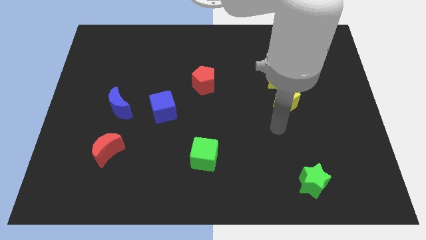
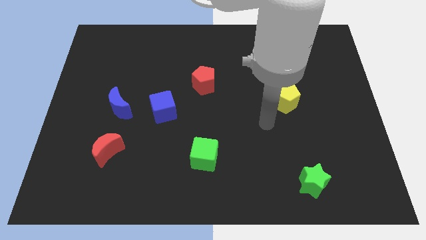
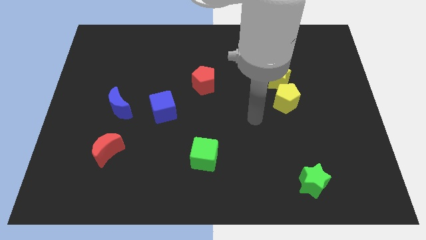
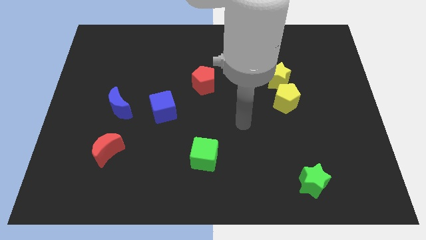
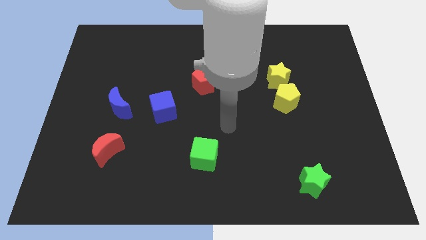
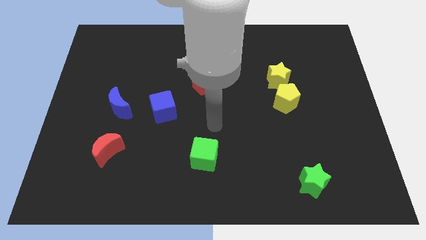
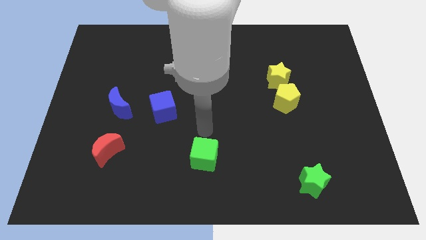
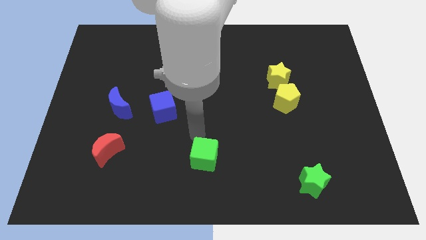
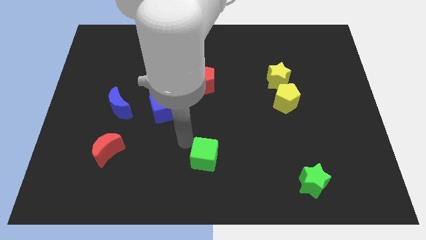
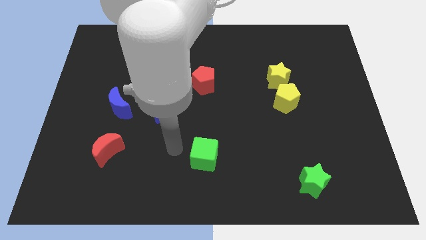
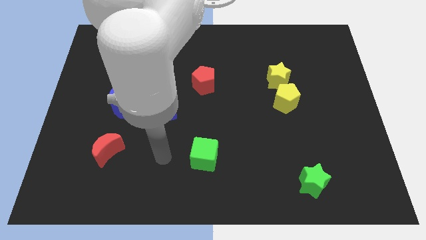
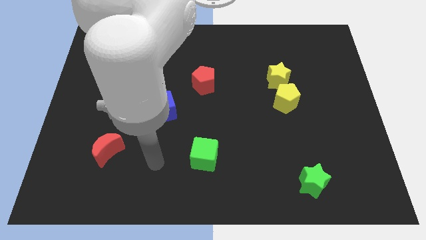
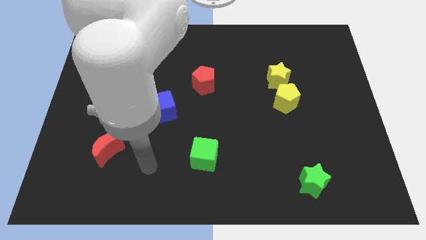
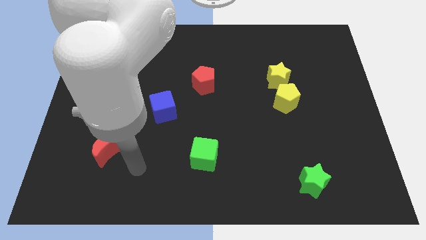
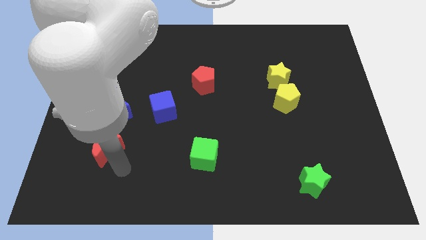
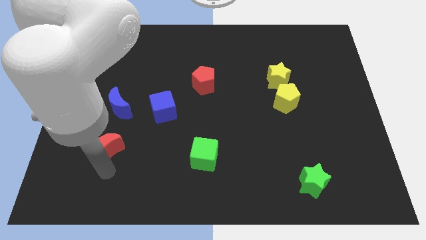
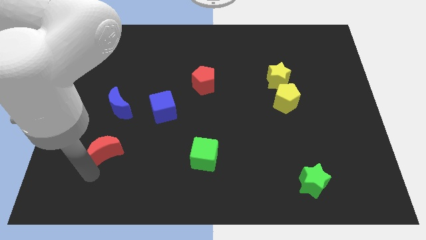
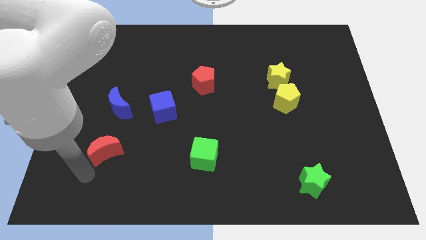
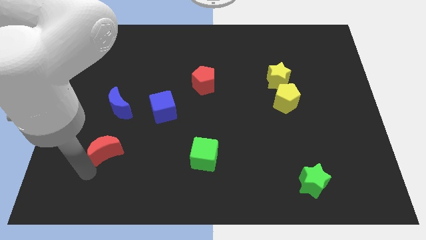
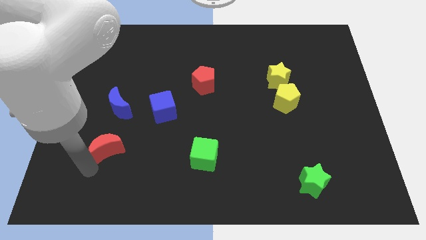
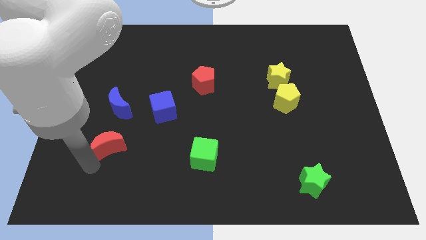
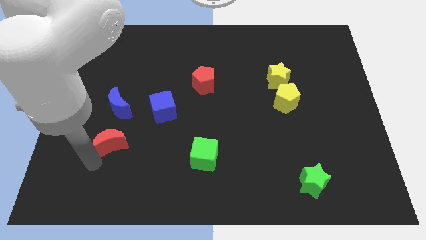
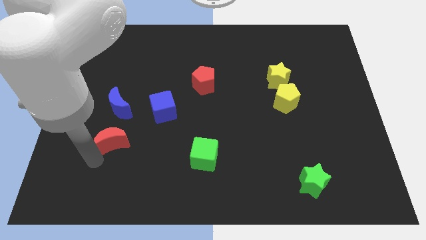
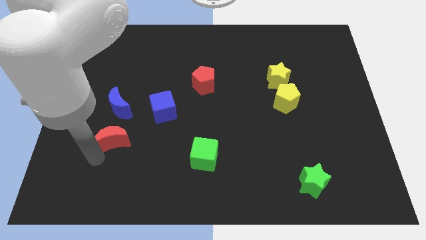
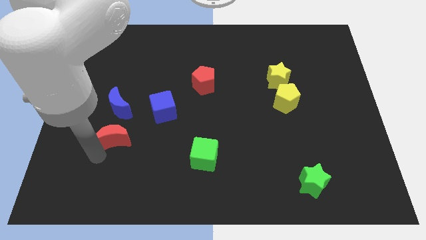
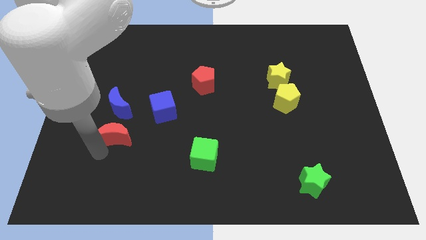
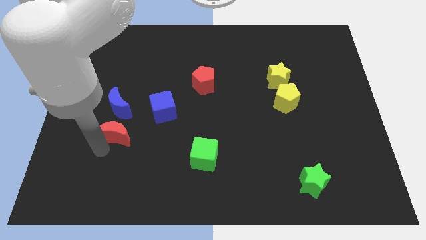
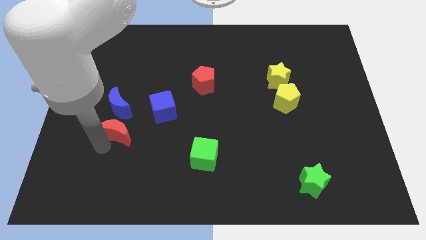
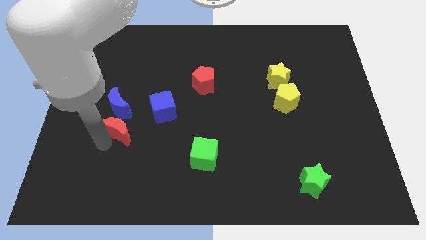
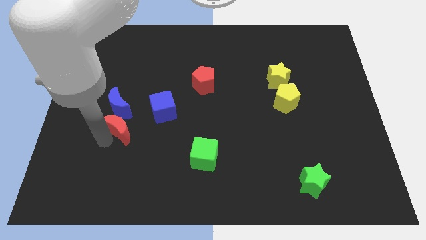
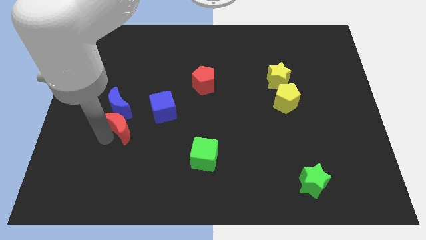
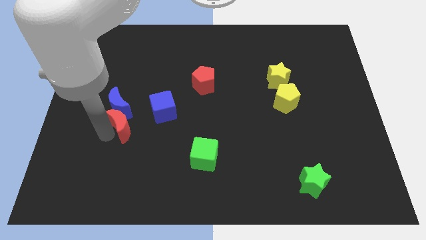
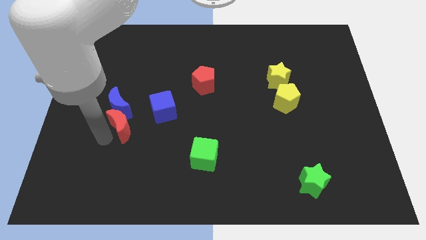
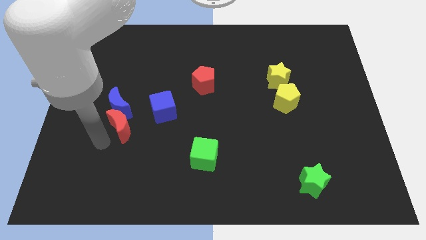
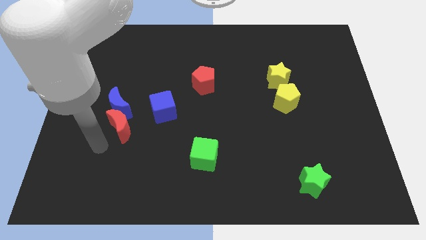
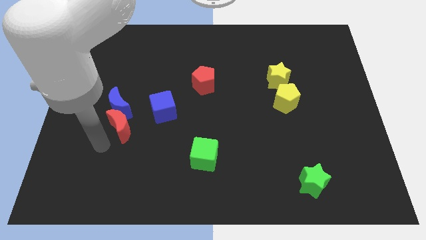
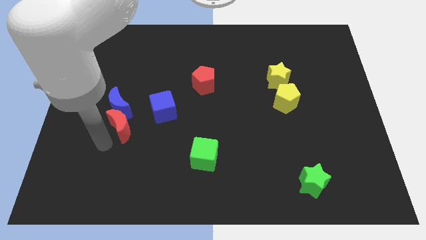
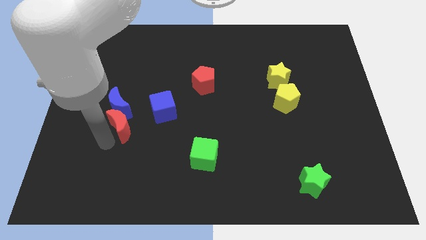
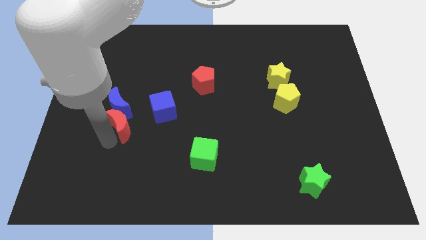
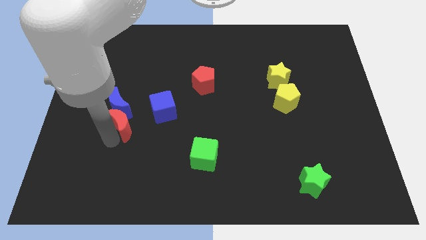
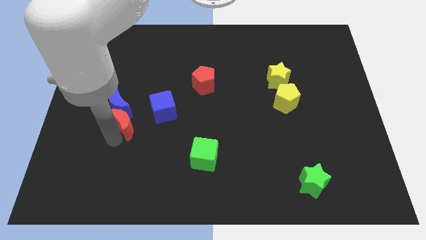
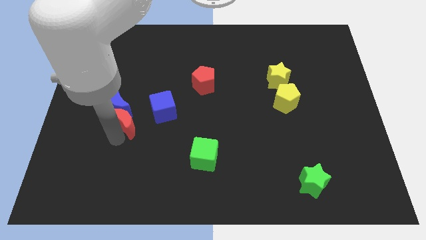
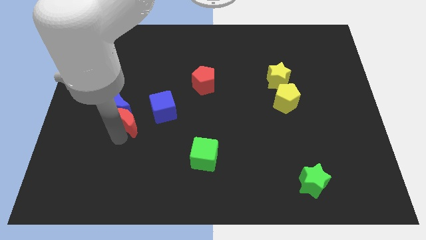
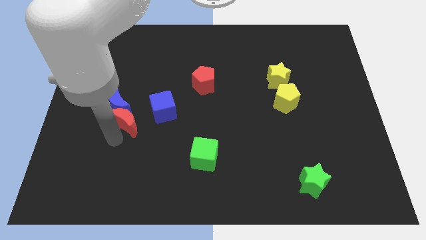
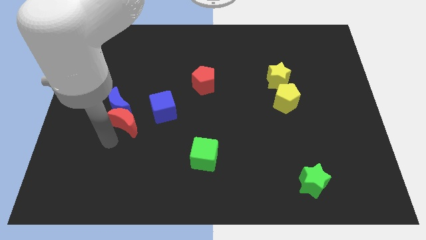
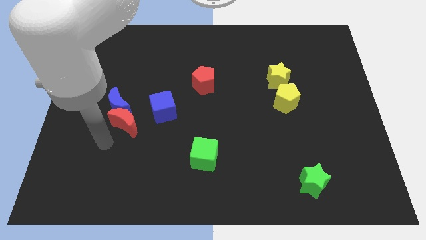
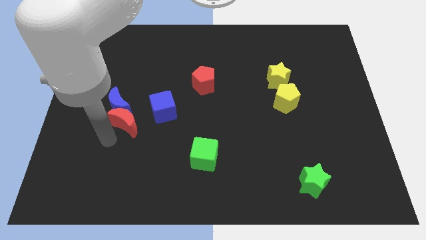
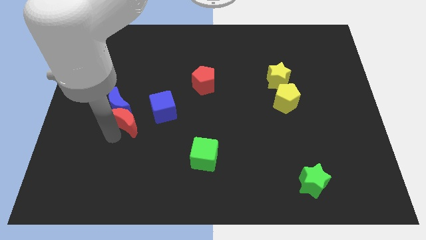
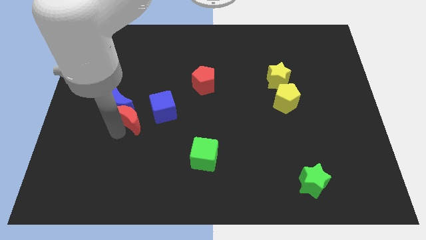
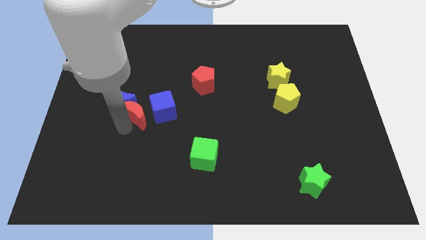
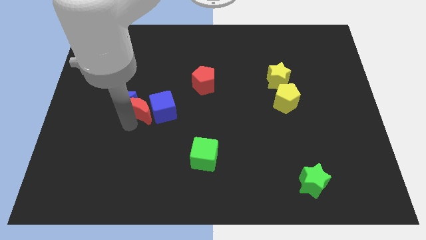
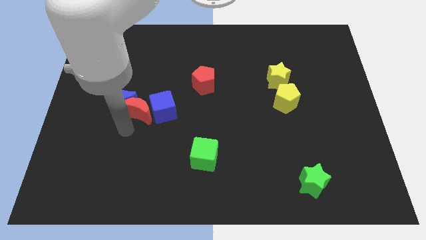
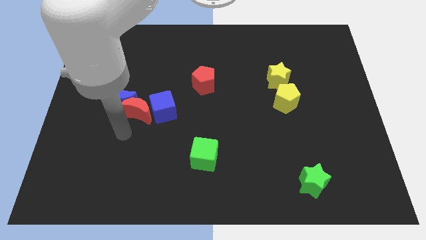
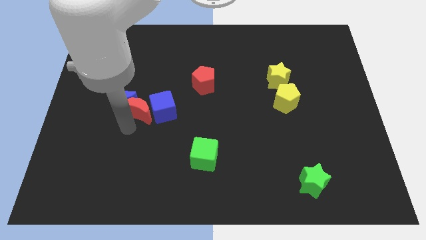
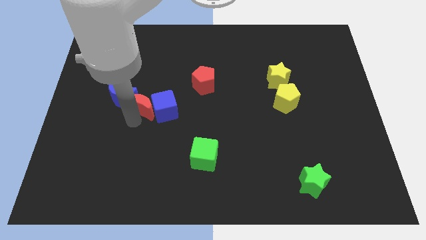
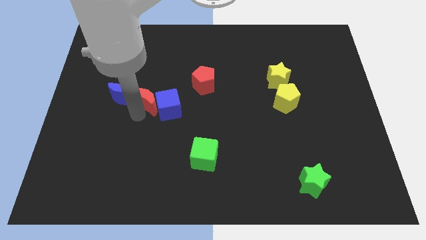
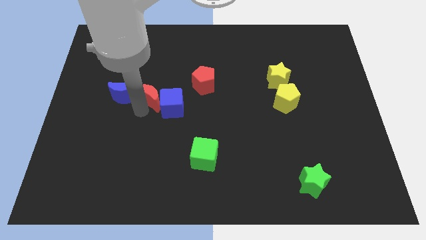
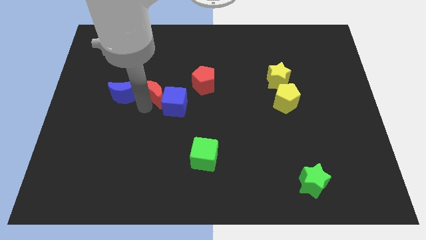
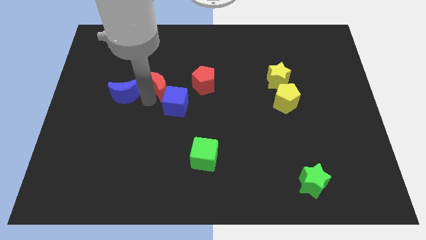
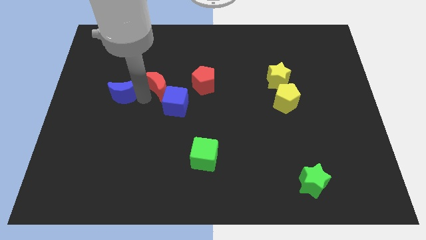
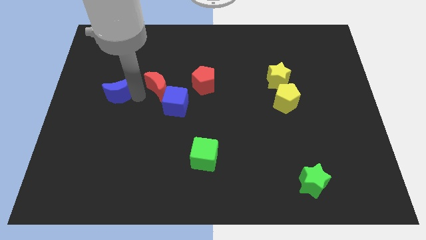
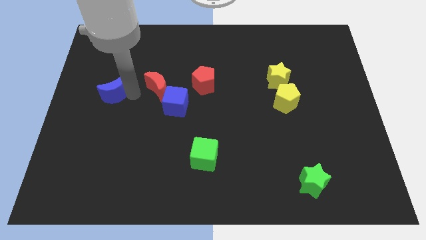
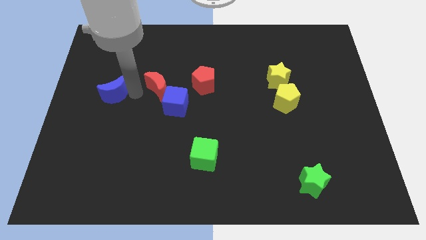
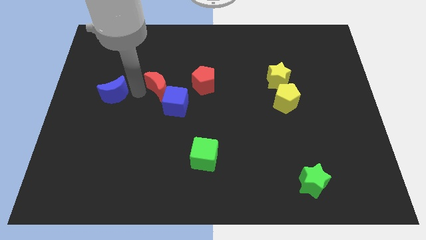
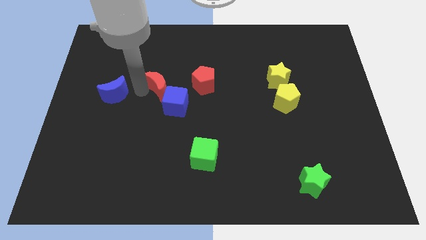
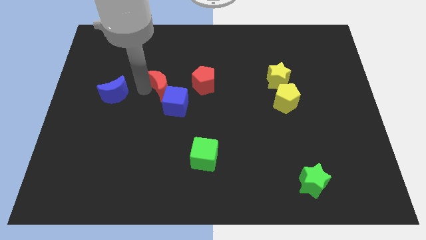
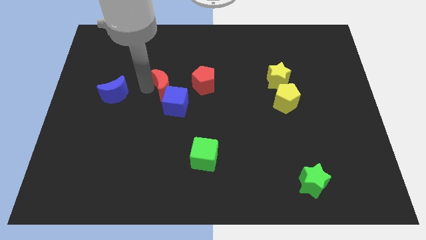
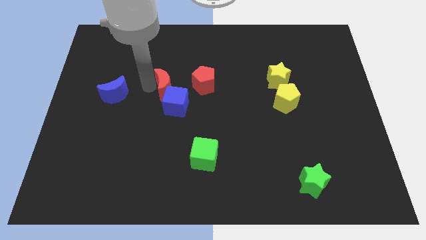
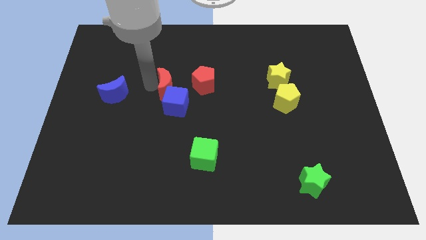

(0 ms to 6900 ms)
move the red moon upwards and right diagonally

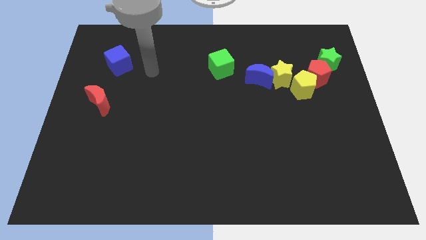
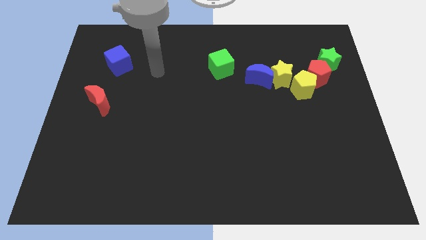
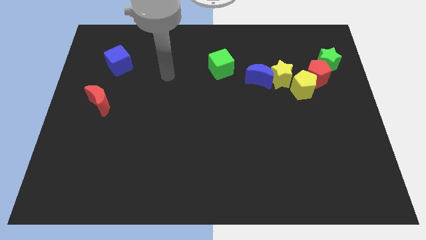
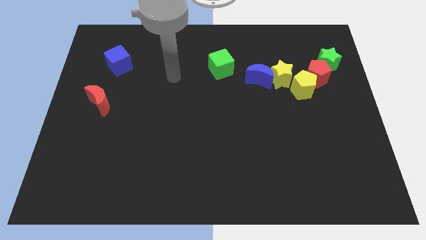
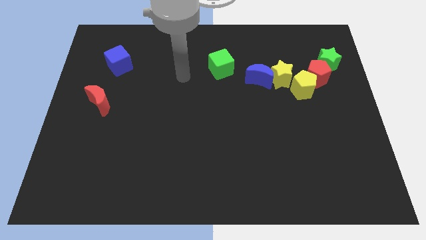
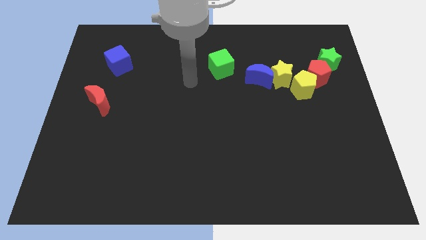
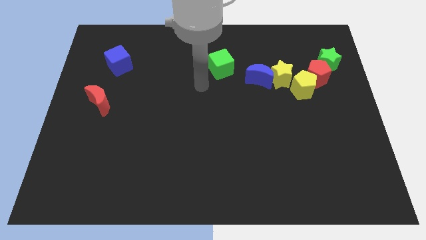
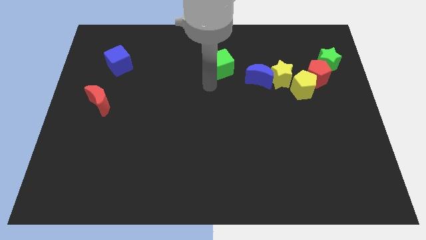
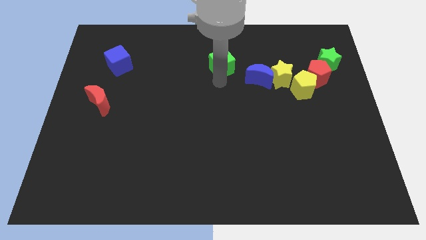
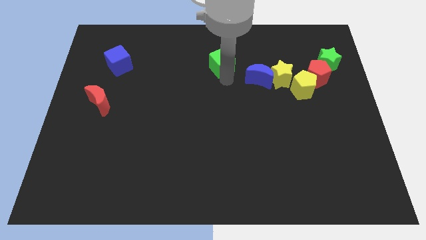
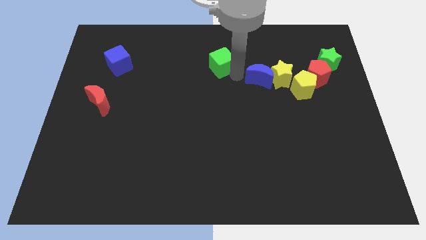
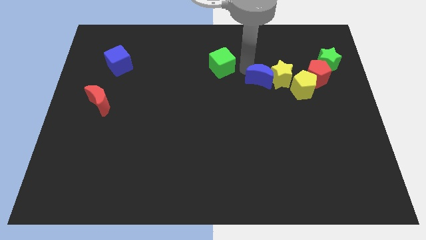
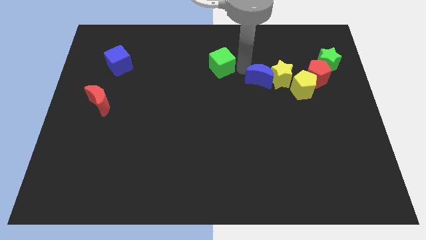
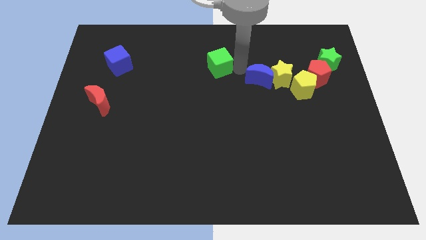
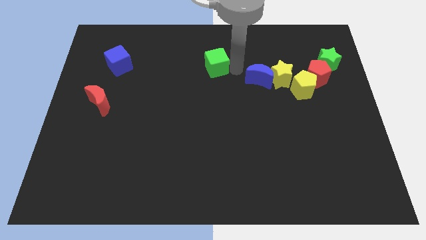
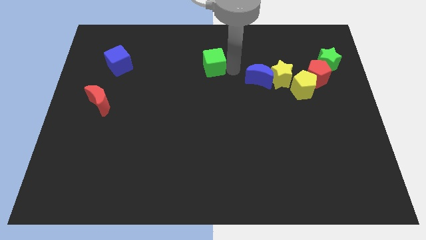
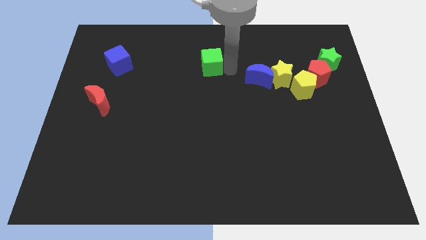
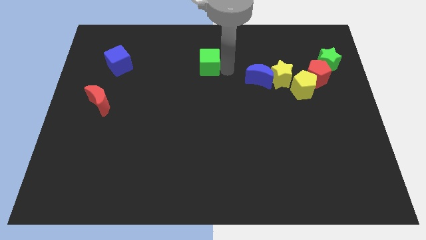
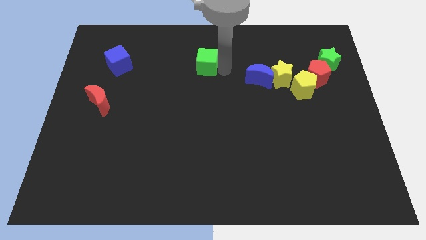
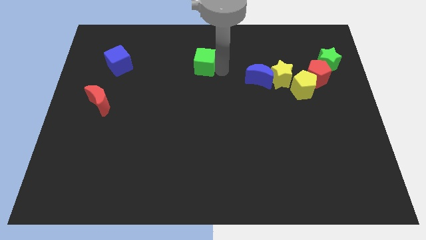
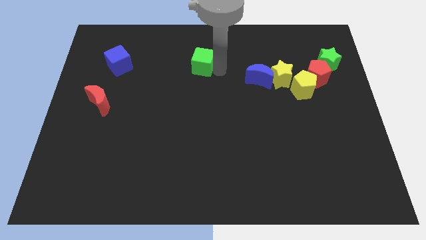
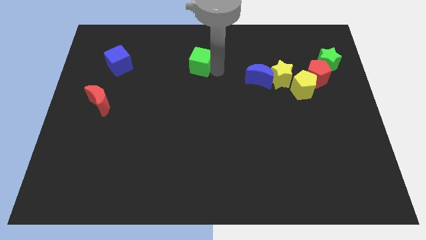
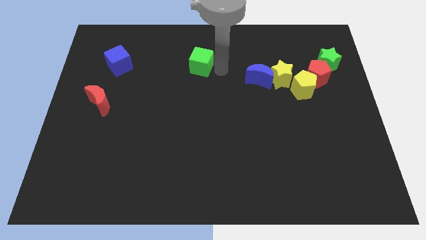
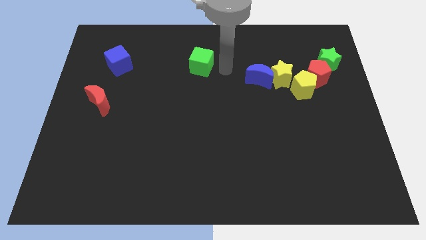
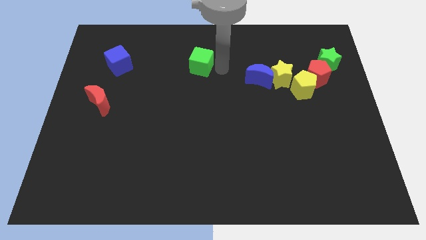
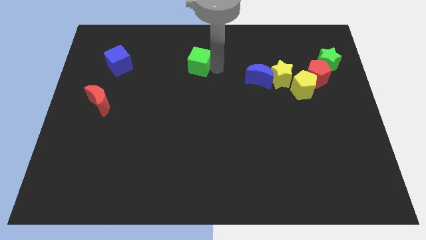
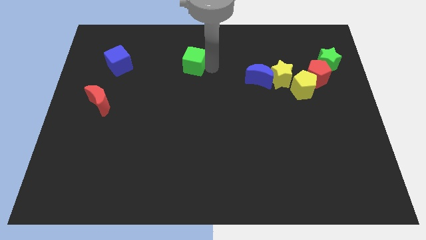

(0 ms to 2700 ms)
slide the green cube to the left a little bit
